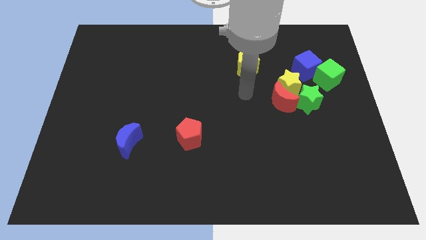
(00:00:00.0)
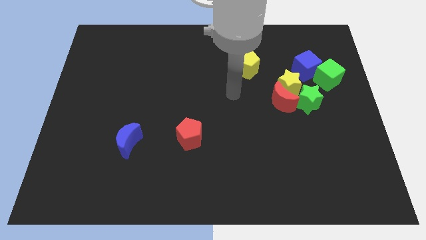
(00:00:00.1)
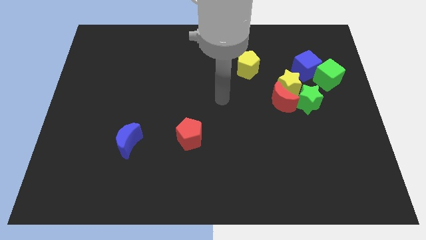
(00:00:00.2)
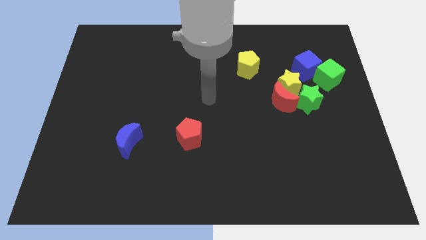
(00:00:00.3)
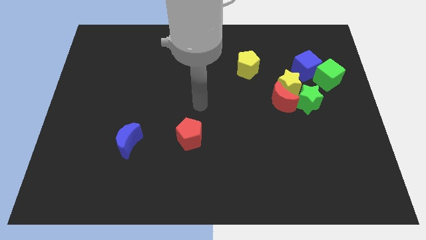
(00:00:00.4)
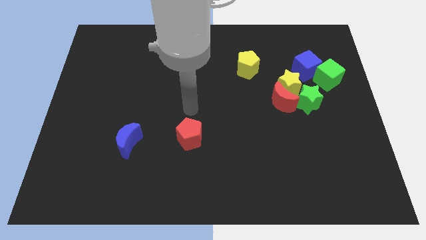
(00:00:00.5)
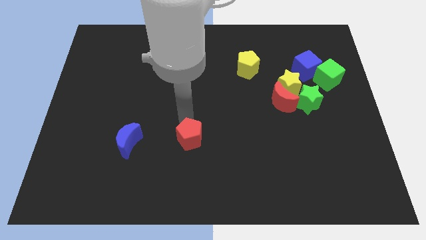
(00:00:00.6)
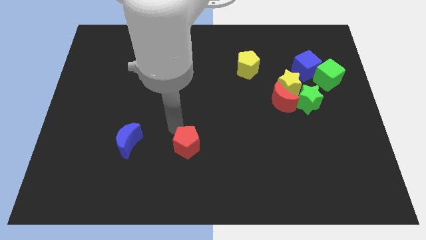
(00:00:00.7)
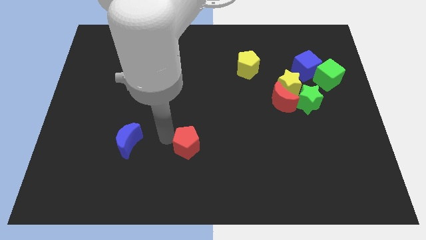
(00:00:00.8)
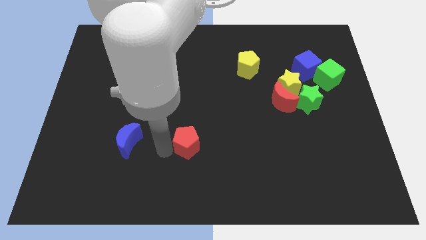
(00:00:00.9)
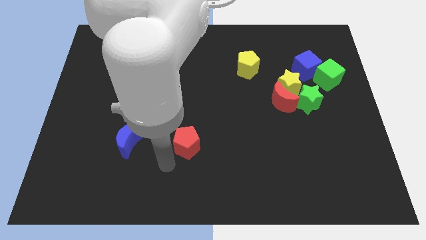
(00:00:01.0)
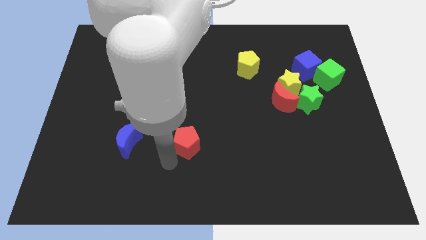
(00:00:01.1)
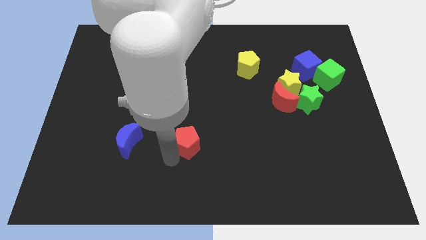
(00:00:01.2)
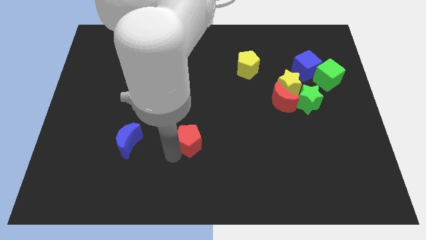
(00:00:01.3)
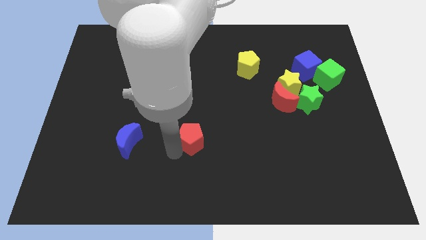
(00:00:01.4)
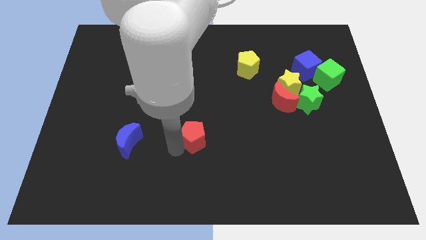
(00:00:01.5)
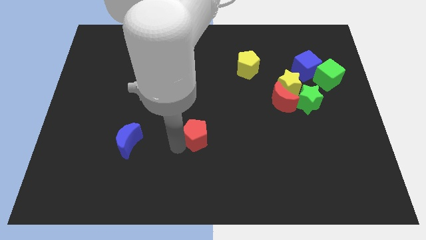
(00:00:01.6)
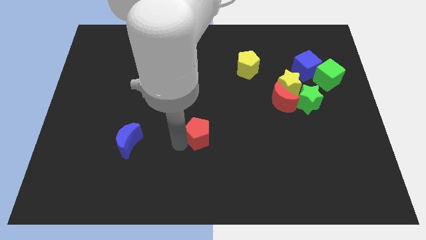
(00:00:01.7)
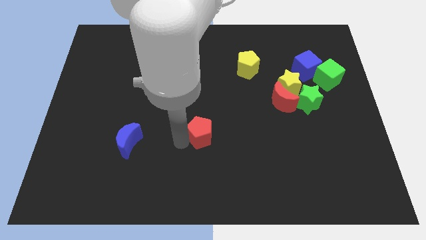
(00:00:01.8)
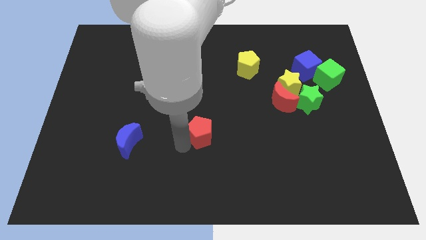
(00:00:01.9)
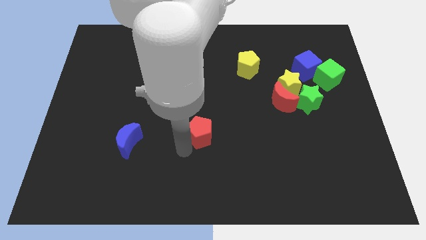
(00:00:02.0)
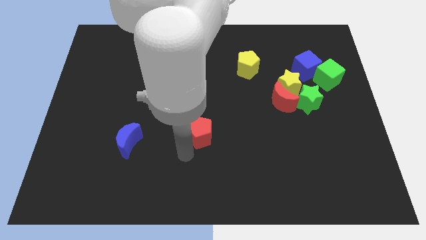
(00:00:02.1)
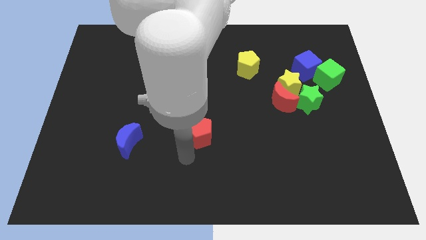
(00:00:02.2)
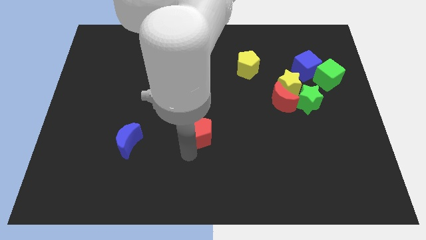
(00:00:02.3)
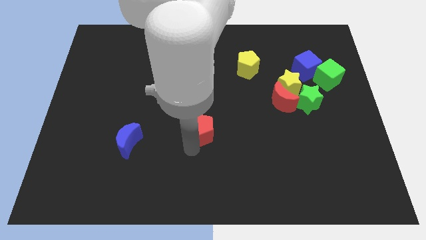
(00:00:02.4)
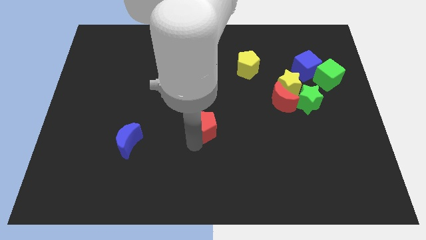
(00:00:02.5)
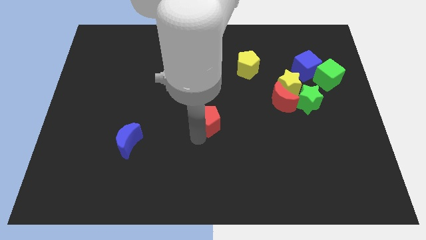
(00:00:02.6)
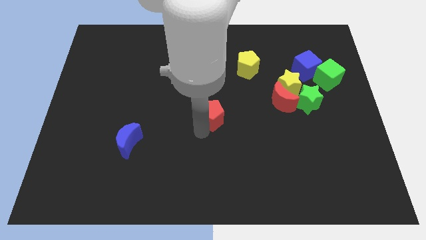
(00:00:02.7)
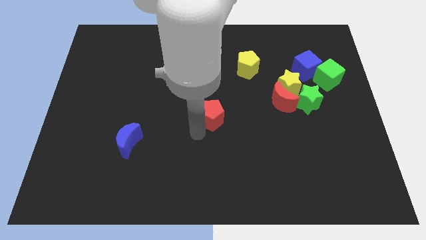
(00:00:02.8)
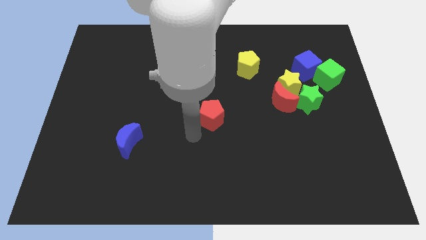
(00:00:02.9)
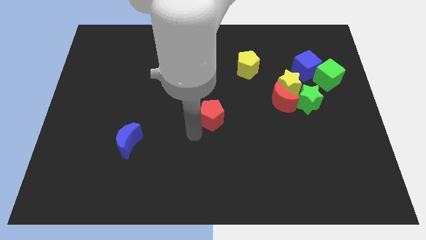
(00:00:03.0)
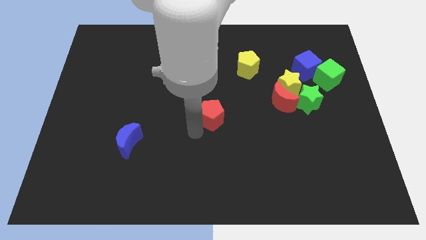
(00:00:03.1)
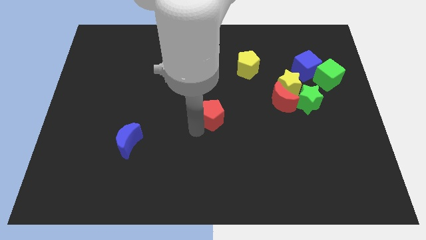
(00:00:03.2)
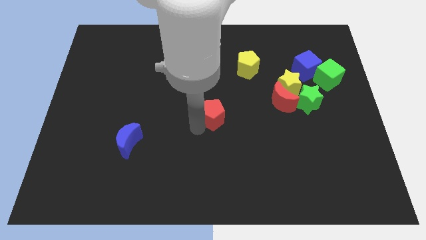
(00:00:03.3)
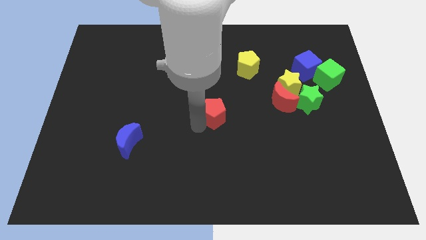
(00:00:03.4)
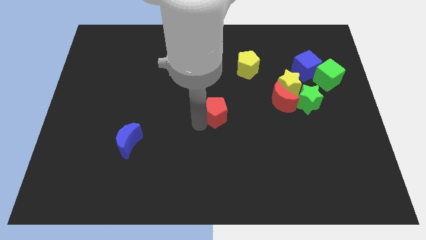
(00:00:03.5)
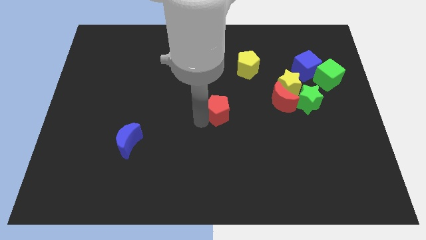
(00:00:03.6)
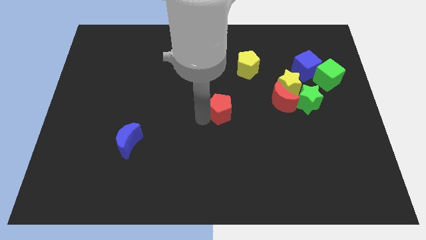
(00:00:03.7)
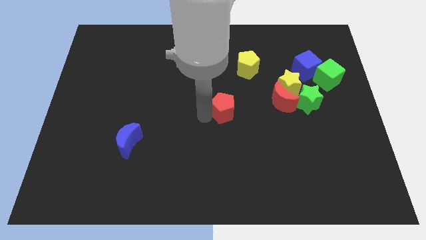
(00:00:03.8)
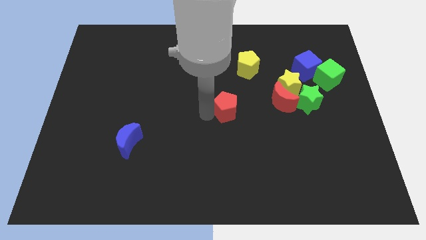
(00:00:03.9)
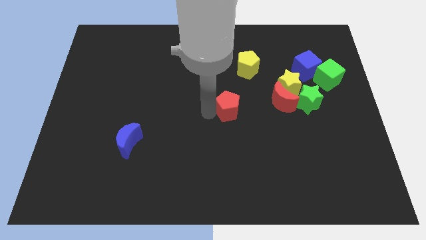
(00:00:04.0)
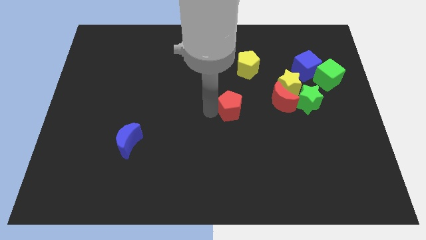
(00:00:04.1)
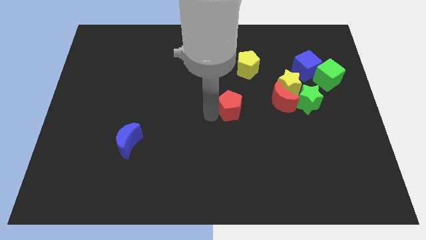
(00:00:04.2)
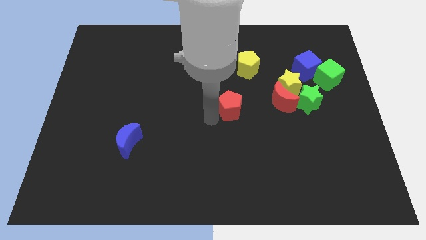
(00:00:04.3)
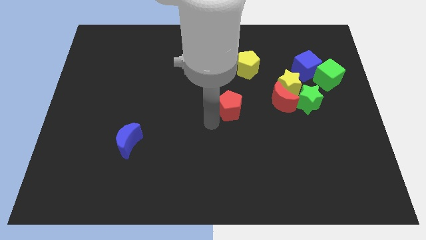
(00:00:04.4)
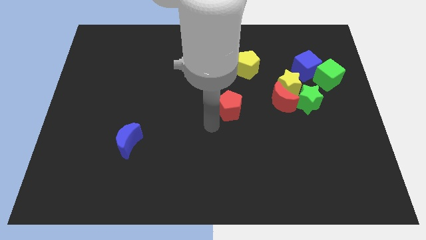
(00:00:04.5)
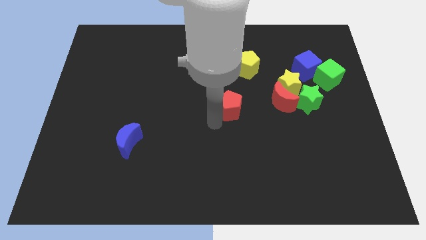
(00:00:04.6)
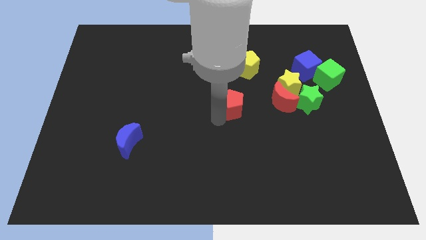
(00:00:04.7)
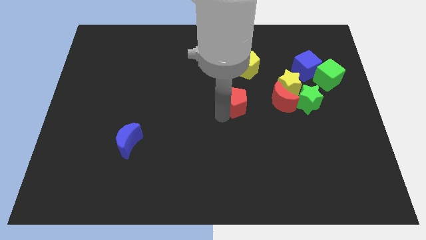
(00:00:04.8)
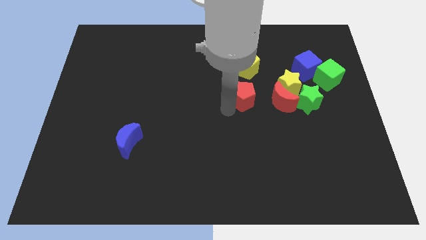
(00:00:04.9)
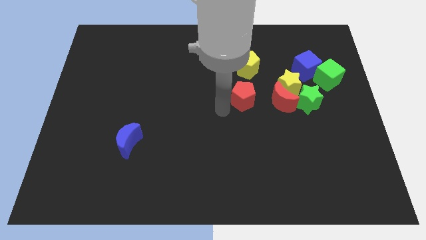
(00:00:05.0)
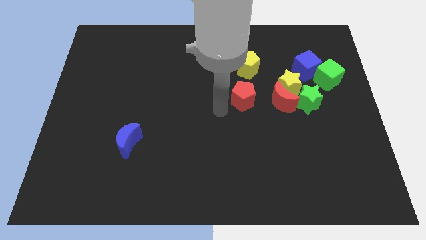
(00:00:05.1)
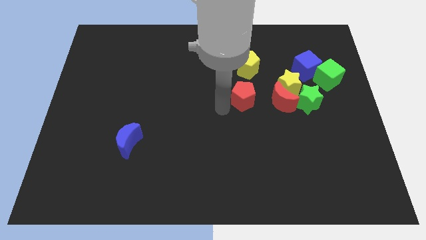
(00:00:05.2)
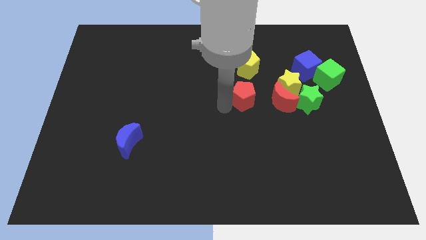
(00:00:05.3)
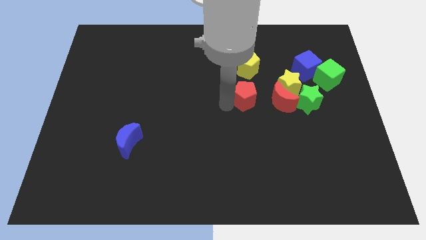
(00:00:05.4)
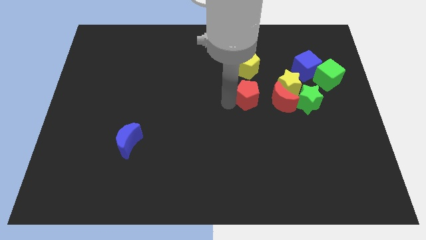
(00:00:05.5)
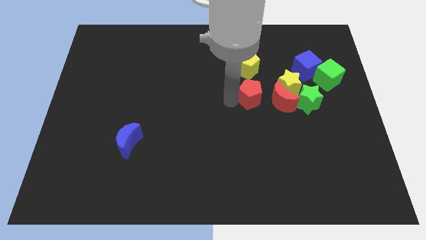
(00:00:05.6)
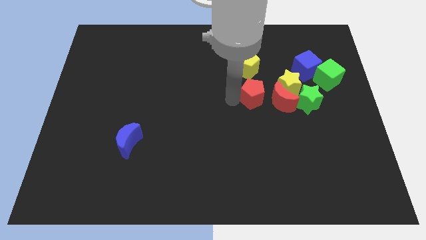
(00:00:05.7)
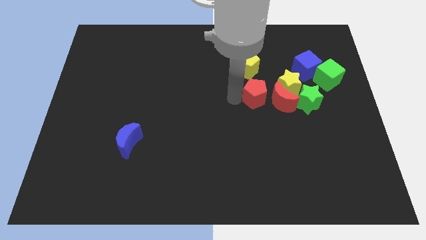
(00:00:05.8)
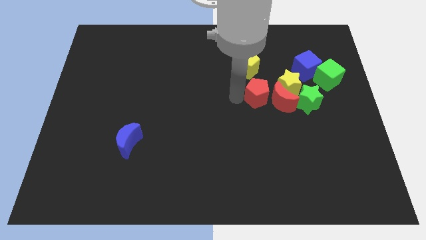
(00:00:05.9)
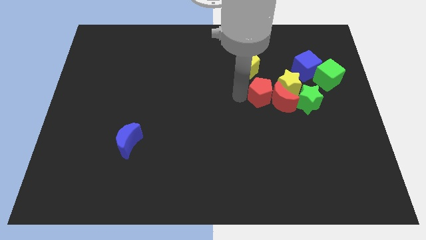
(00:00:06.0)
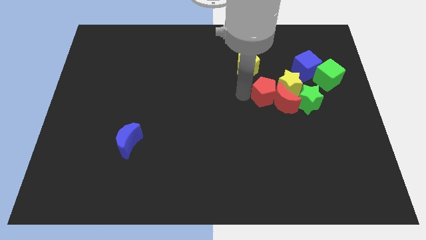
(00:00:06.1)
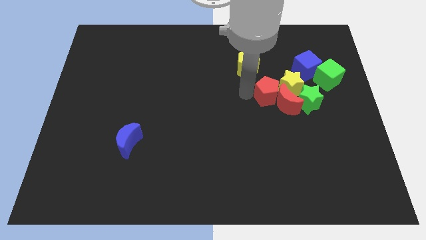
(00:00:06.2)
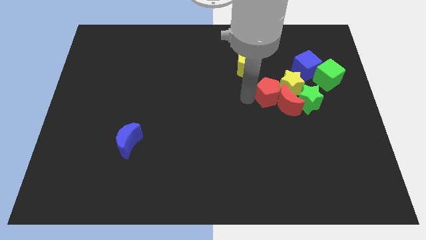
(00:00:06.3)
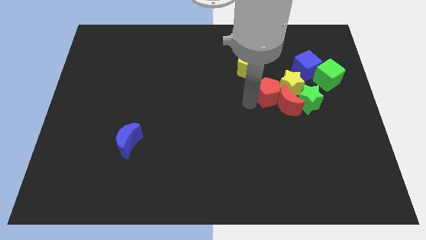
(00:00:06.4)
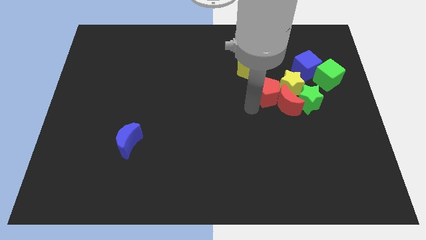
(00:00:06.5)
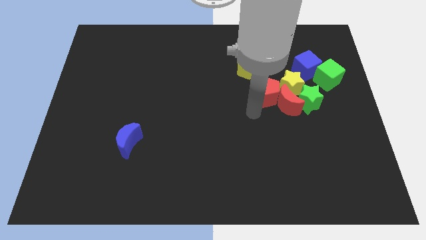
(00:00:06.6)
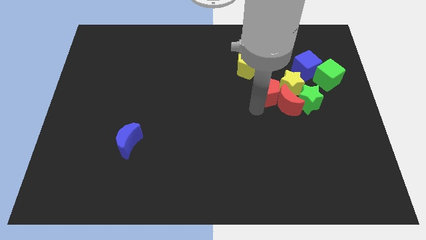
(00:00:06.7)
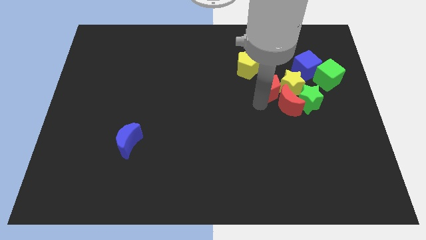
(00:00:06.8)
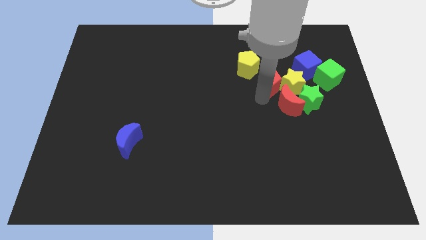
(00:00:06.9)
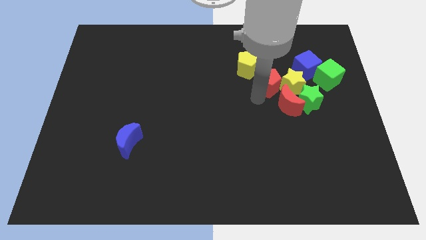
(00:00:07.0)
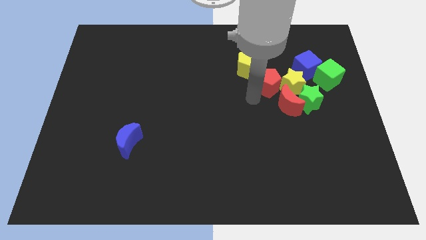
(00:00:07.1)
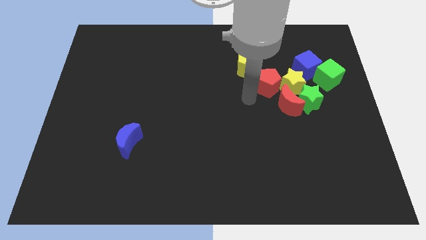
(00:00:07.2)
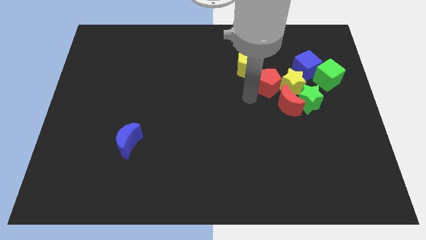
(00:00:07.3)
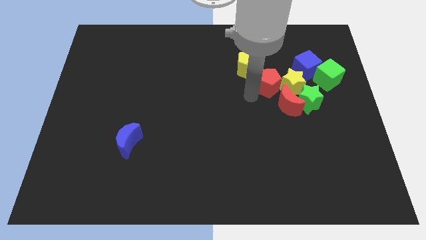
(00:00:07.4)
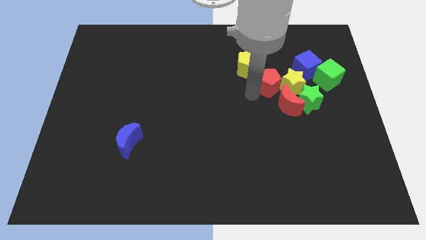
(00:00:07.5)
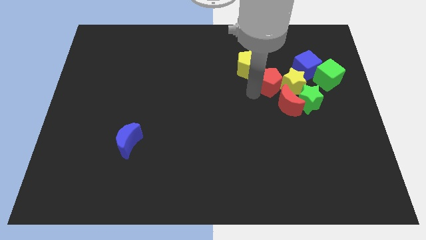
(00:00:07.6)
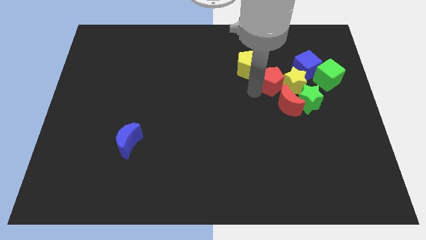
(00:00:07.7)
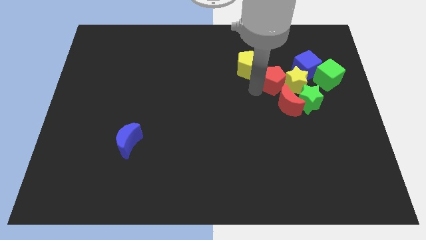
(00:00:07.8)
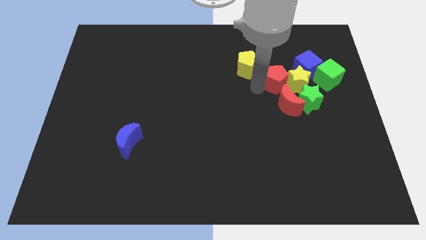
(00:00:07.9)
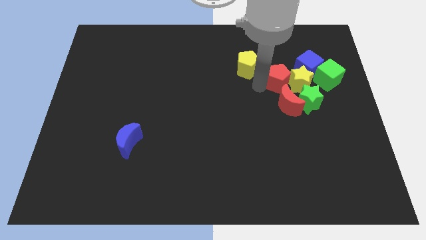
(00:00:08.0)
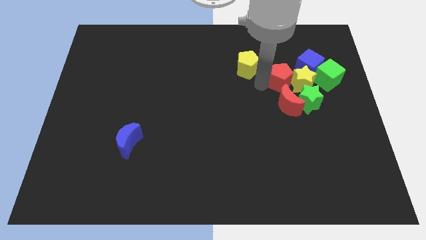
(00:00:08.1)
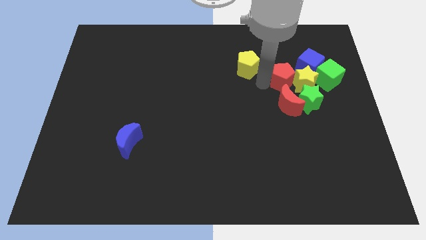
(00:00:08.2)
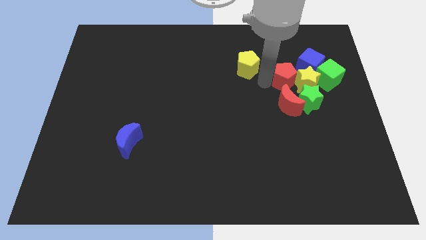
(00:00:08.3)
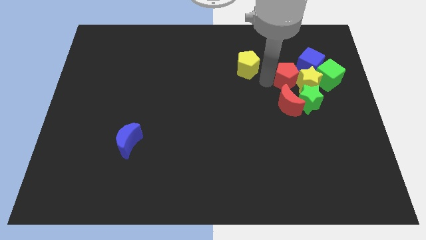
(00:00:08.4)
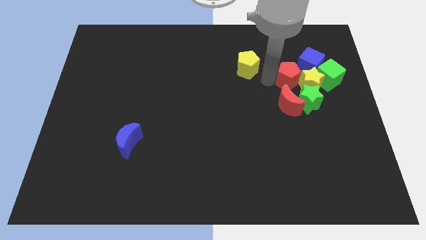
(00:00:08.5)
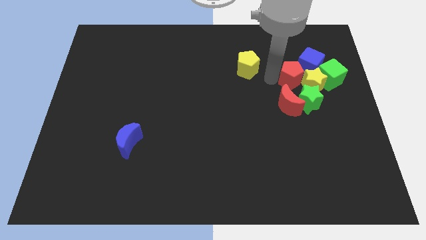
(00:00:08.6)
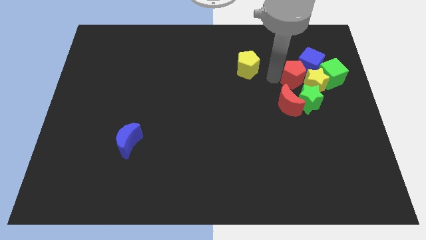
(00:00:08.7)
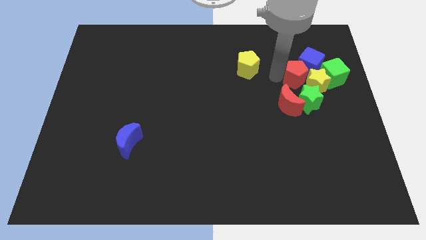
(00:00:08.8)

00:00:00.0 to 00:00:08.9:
put the red pentagon next to the blue cube
